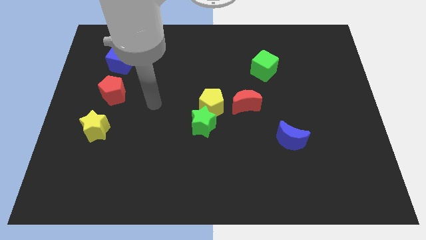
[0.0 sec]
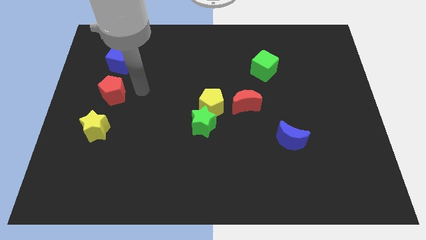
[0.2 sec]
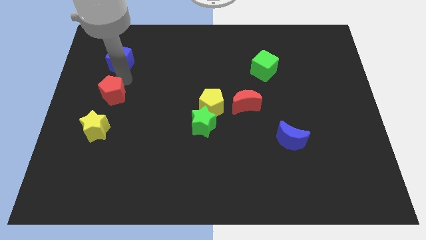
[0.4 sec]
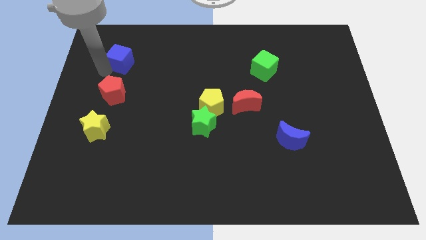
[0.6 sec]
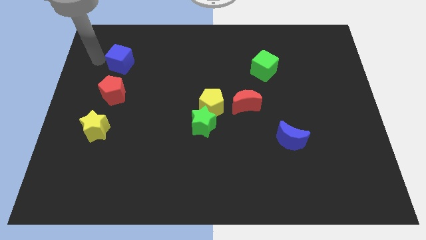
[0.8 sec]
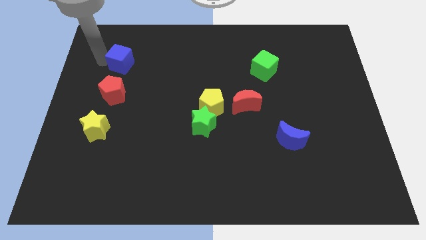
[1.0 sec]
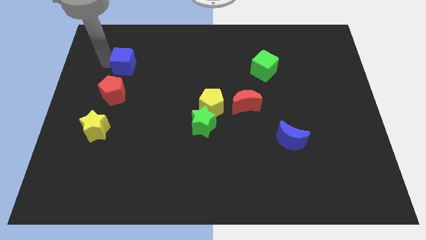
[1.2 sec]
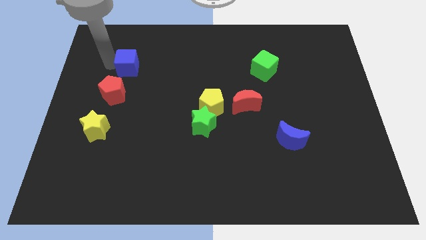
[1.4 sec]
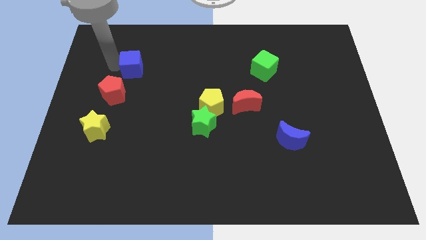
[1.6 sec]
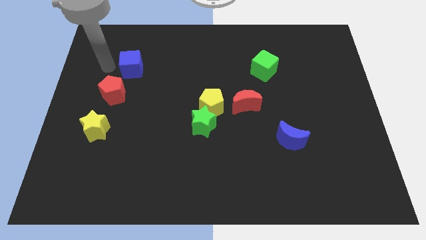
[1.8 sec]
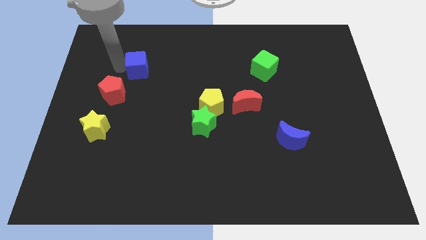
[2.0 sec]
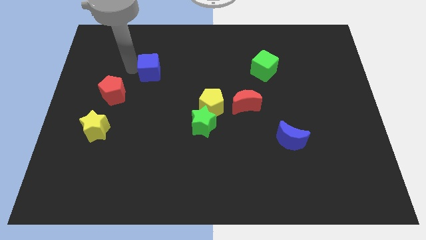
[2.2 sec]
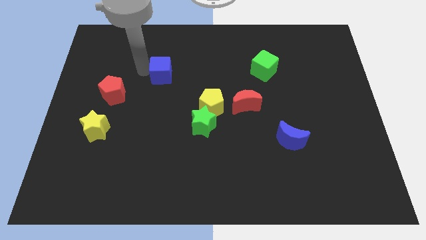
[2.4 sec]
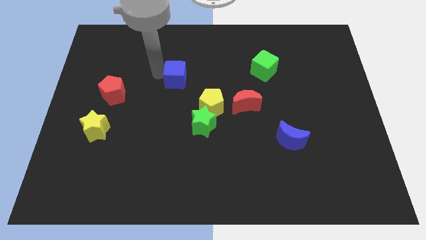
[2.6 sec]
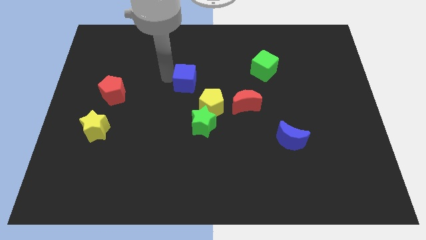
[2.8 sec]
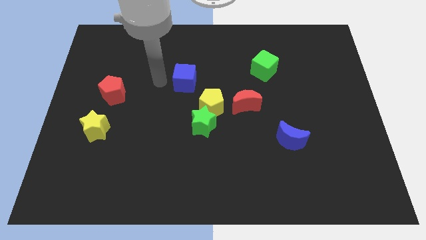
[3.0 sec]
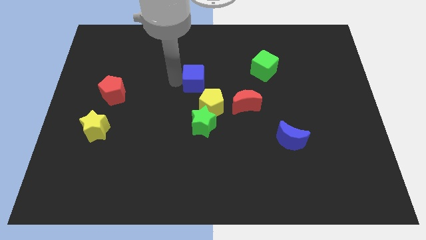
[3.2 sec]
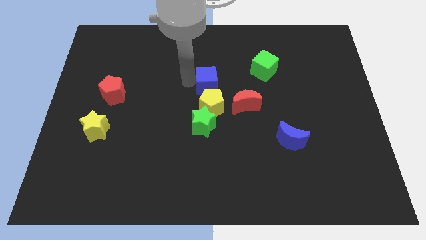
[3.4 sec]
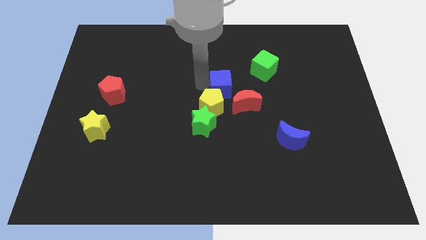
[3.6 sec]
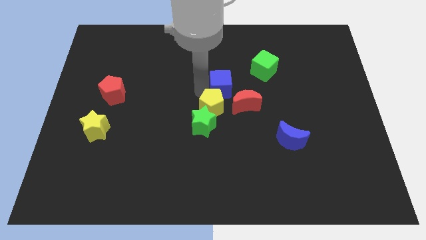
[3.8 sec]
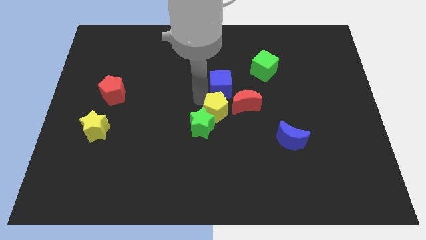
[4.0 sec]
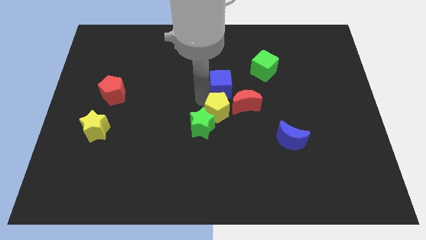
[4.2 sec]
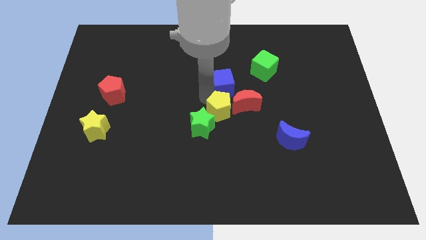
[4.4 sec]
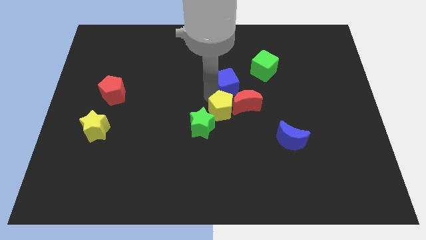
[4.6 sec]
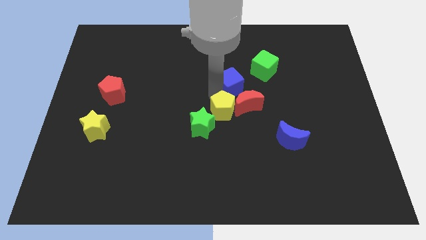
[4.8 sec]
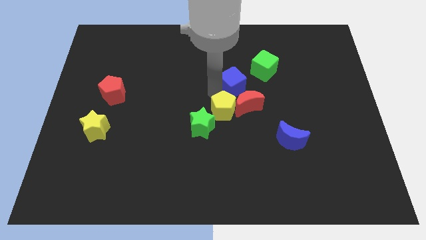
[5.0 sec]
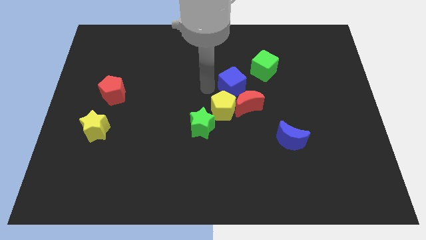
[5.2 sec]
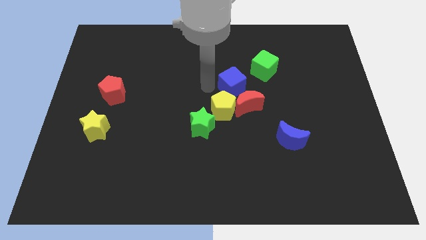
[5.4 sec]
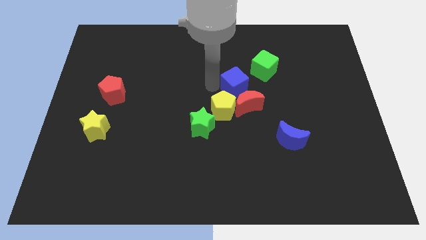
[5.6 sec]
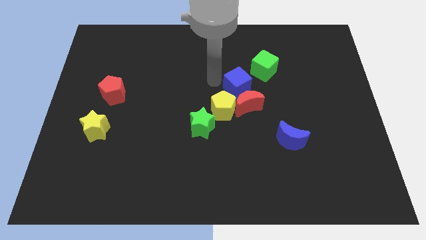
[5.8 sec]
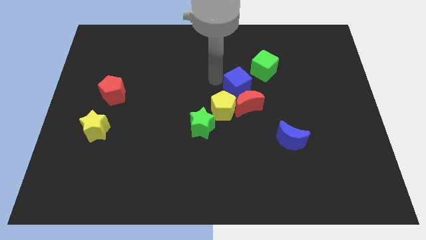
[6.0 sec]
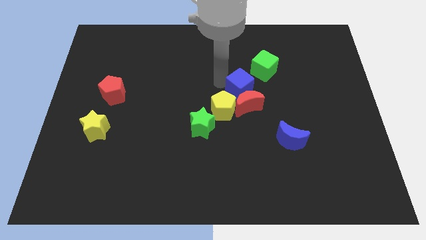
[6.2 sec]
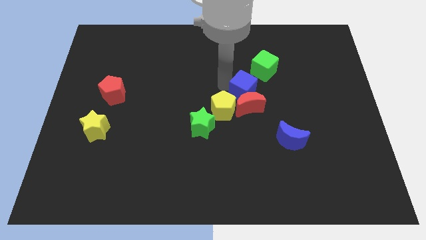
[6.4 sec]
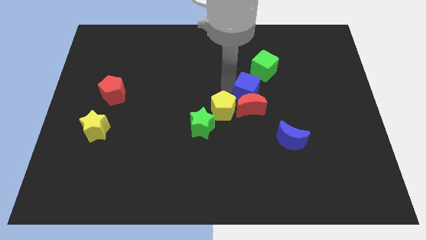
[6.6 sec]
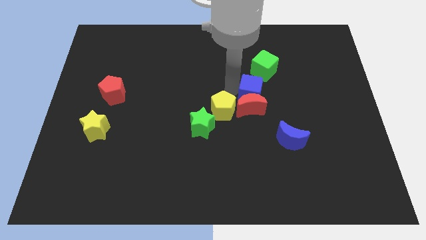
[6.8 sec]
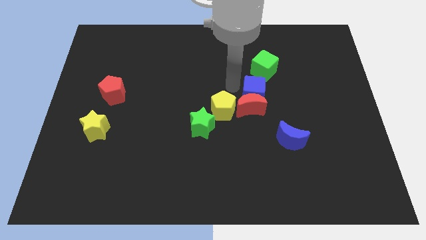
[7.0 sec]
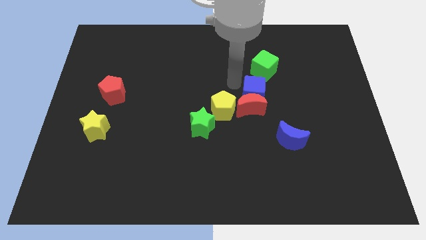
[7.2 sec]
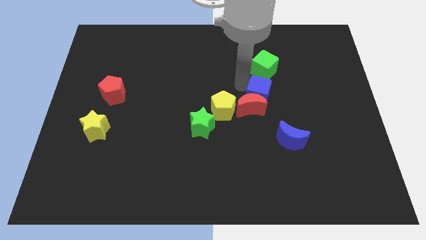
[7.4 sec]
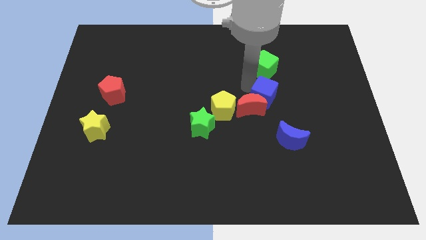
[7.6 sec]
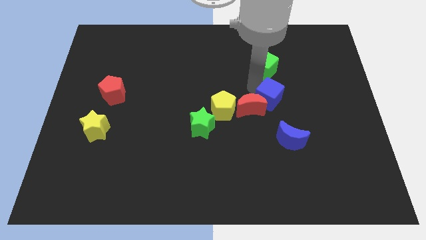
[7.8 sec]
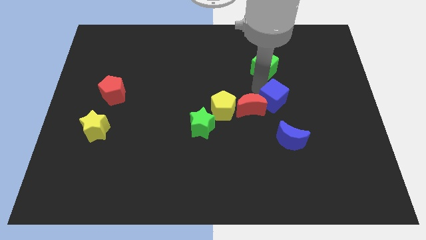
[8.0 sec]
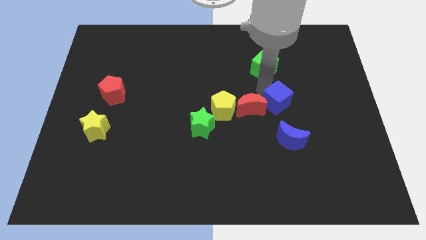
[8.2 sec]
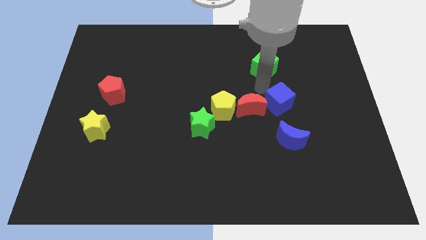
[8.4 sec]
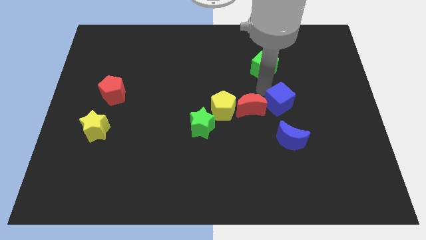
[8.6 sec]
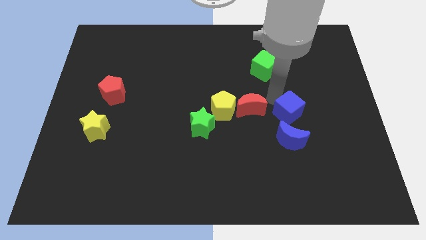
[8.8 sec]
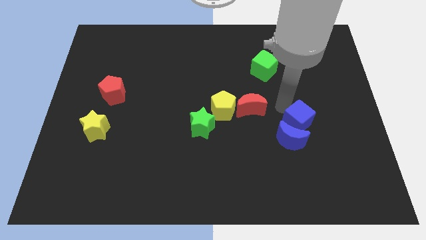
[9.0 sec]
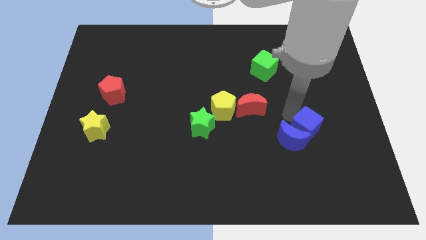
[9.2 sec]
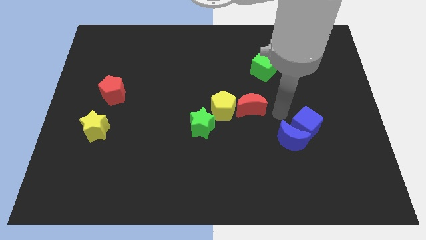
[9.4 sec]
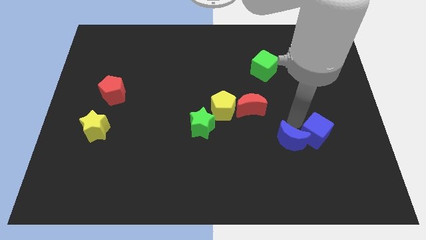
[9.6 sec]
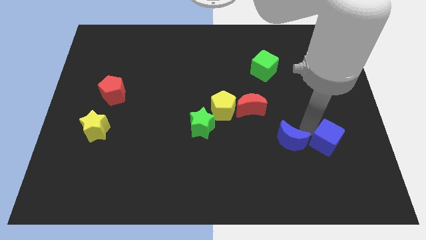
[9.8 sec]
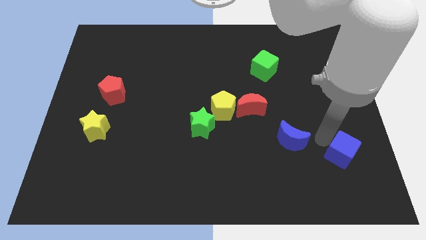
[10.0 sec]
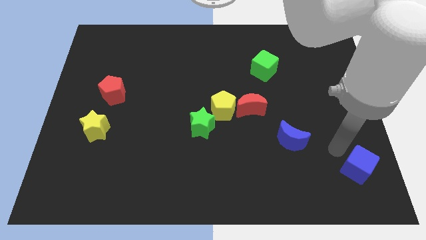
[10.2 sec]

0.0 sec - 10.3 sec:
slide the blue cube to the bottom right

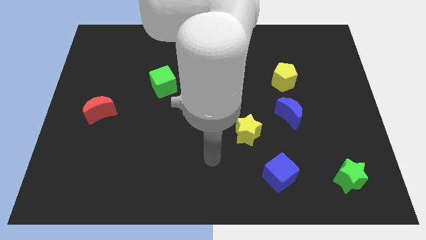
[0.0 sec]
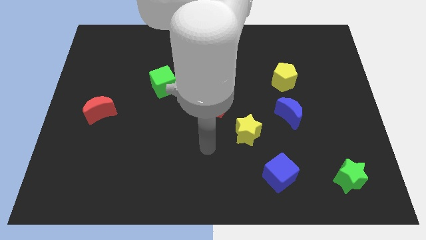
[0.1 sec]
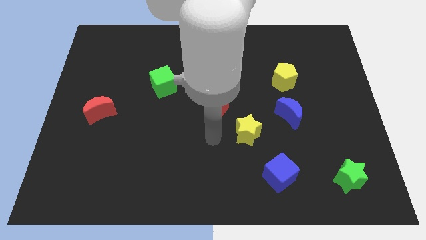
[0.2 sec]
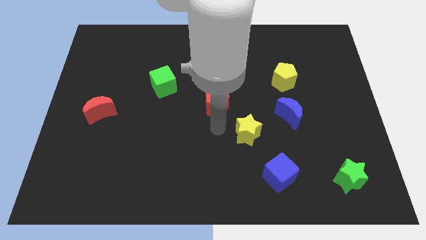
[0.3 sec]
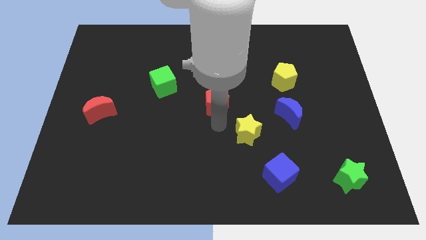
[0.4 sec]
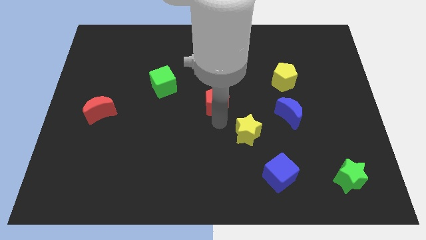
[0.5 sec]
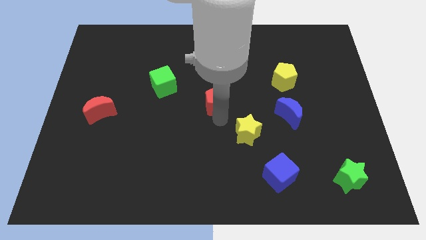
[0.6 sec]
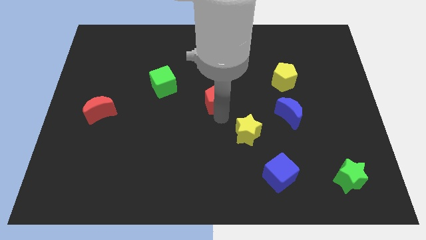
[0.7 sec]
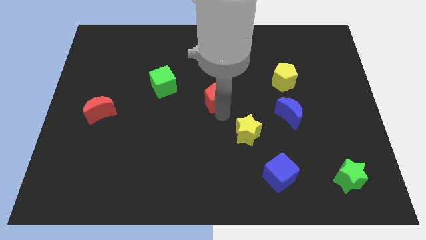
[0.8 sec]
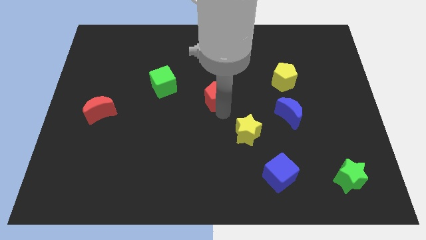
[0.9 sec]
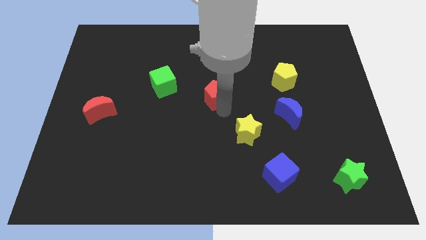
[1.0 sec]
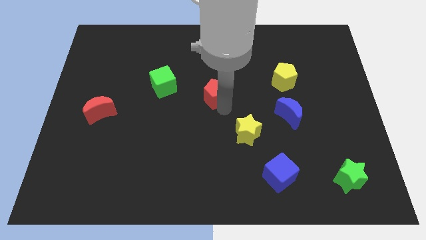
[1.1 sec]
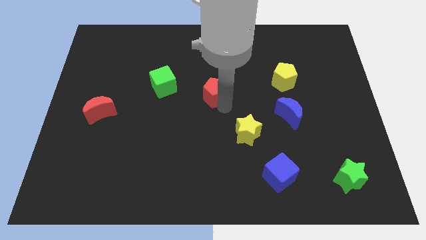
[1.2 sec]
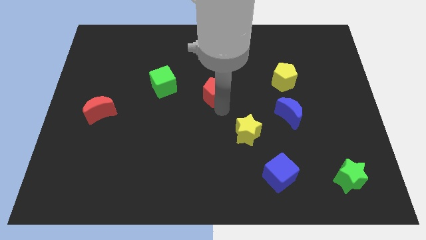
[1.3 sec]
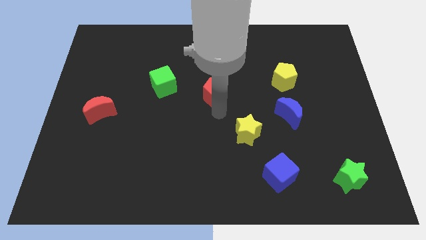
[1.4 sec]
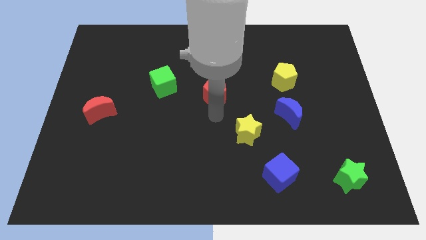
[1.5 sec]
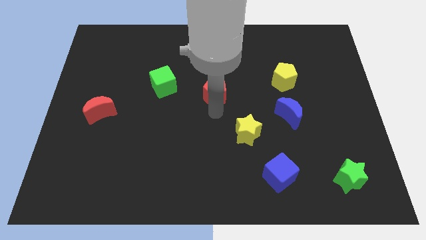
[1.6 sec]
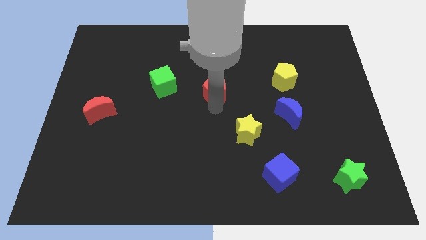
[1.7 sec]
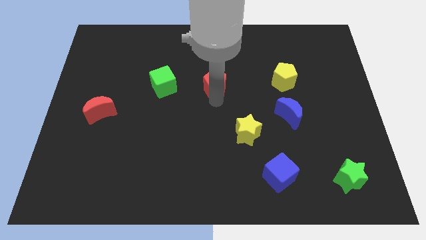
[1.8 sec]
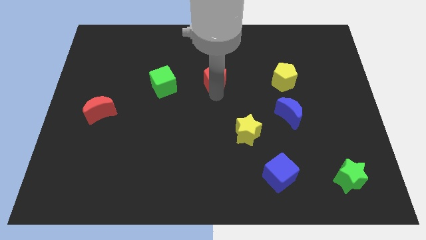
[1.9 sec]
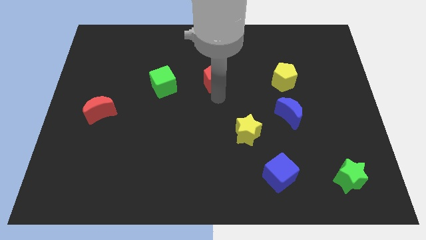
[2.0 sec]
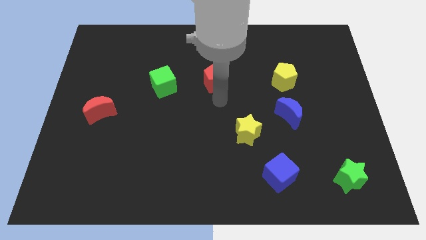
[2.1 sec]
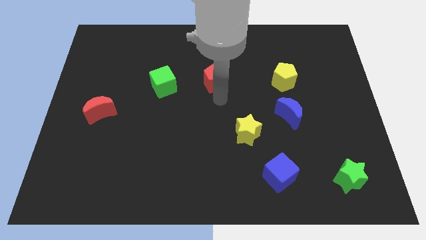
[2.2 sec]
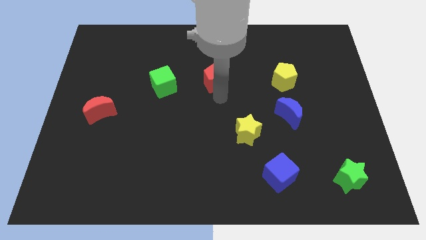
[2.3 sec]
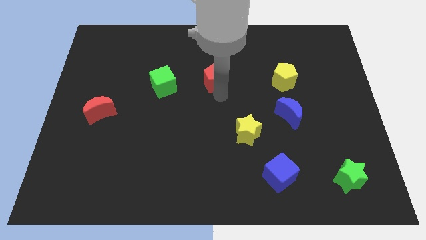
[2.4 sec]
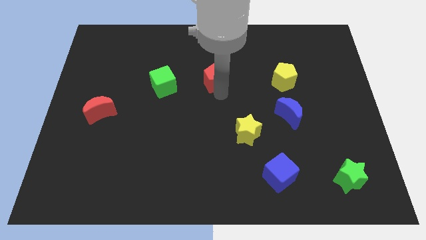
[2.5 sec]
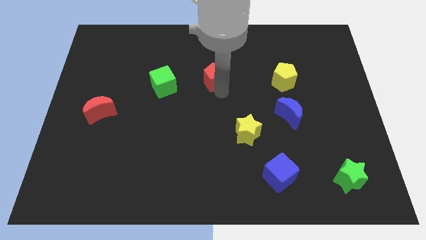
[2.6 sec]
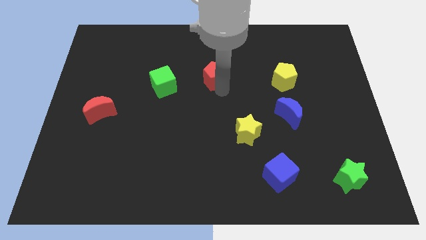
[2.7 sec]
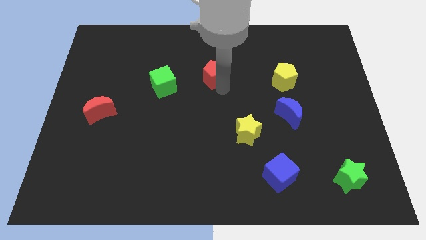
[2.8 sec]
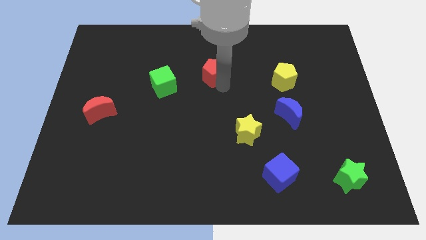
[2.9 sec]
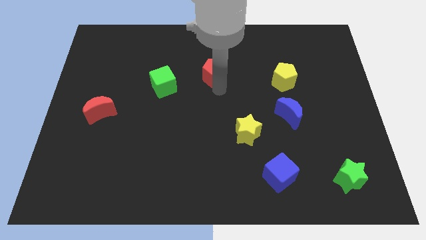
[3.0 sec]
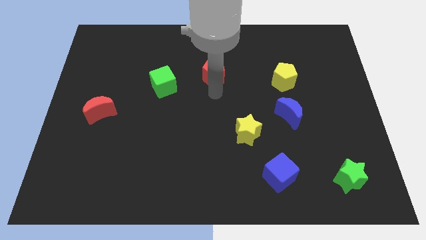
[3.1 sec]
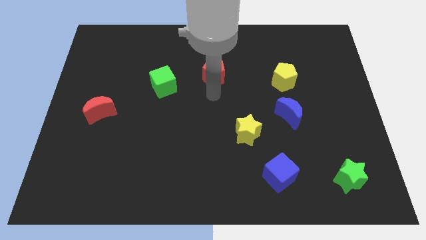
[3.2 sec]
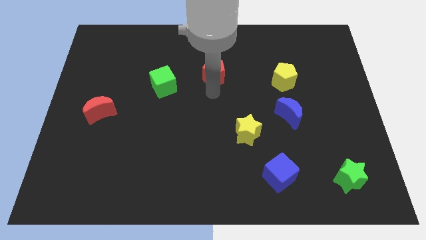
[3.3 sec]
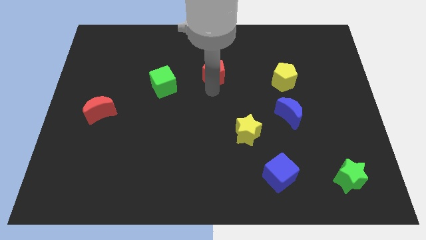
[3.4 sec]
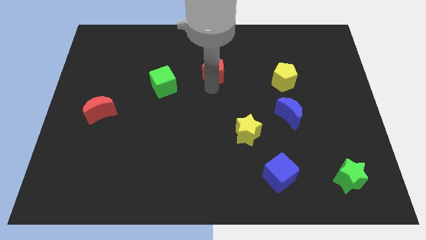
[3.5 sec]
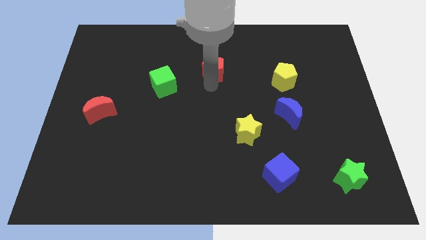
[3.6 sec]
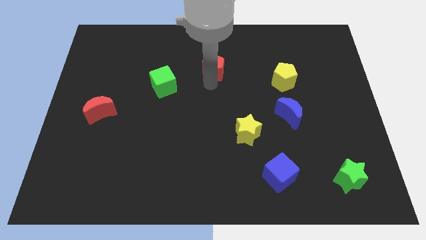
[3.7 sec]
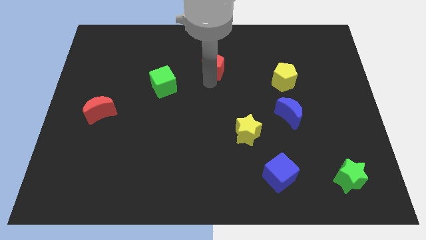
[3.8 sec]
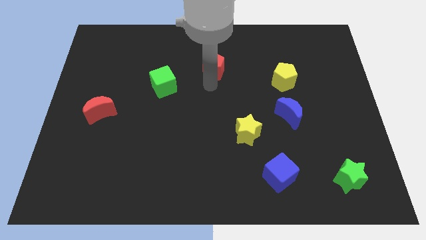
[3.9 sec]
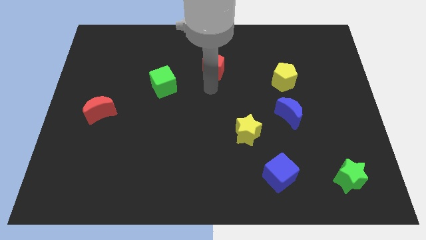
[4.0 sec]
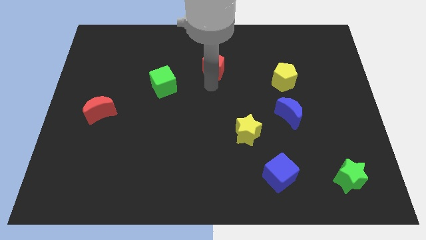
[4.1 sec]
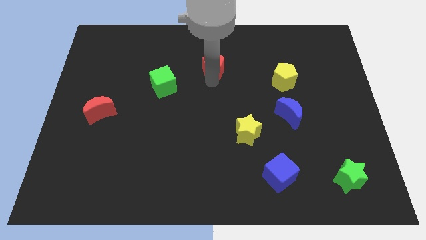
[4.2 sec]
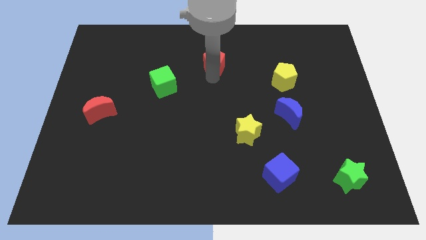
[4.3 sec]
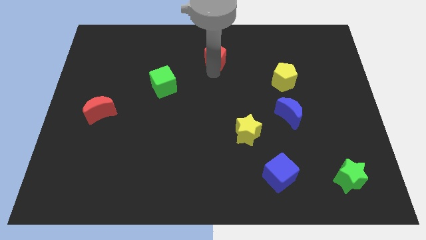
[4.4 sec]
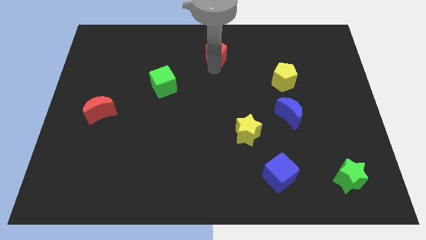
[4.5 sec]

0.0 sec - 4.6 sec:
push the red pentagon to the top
